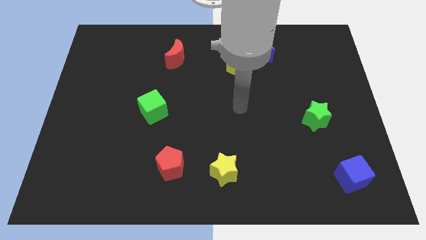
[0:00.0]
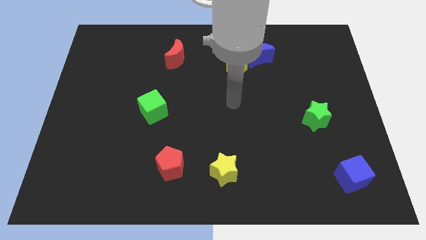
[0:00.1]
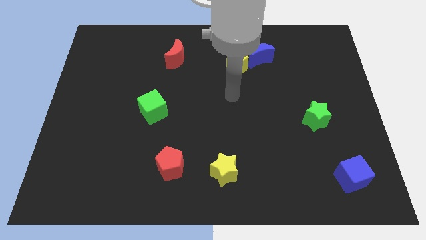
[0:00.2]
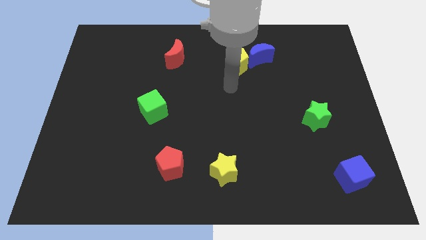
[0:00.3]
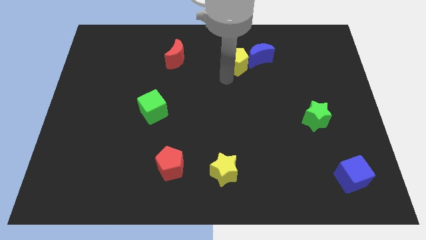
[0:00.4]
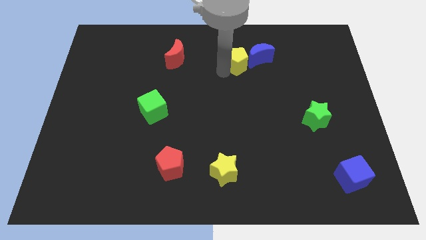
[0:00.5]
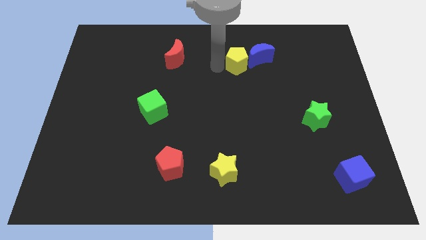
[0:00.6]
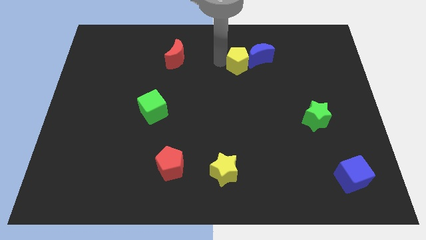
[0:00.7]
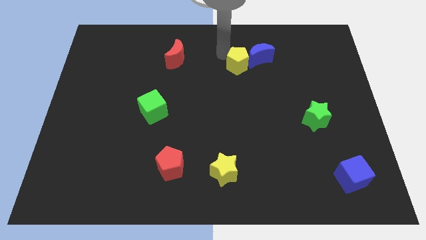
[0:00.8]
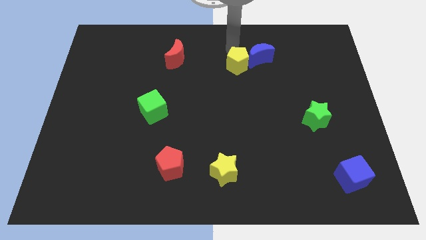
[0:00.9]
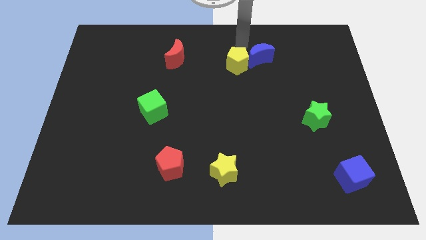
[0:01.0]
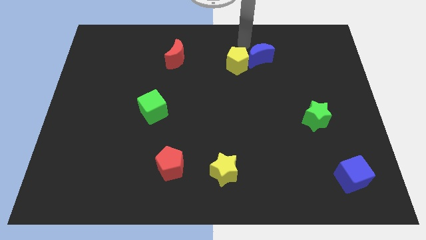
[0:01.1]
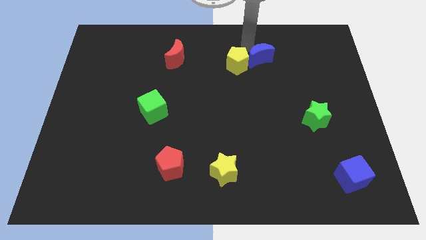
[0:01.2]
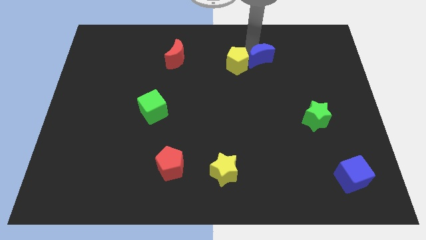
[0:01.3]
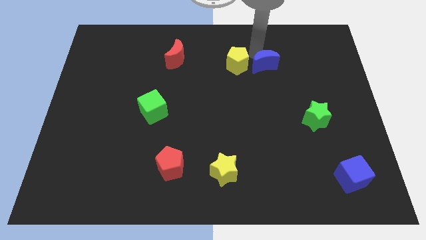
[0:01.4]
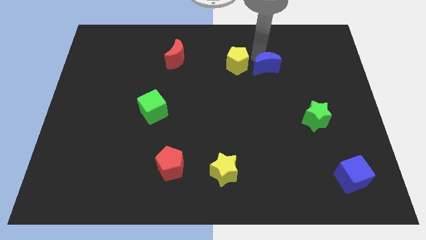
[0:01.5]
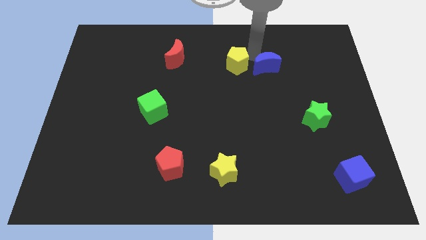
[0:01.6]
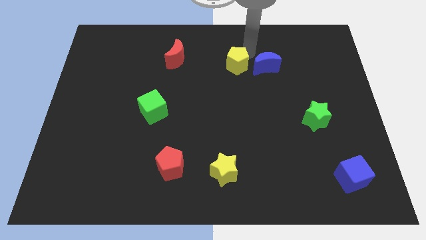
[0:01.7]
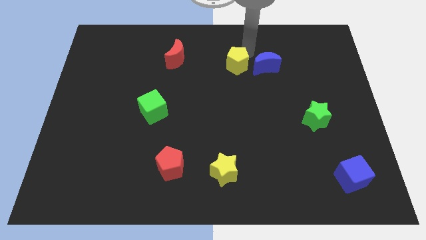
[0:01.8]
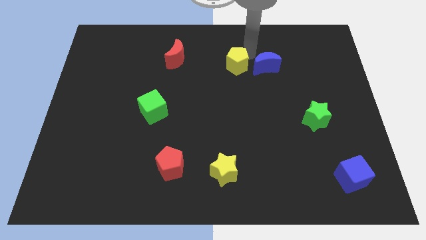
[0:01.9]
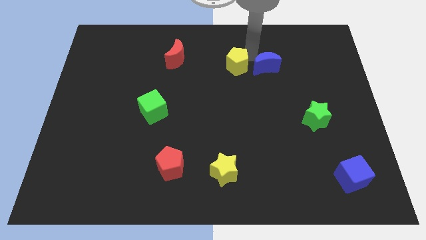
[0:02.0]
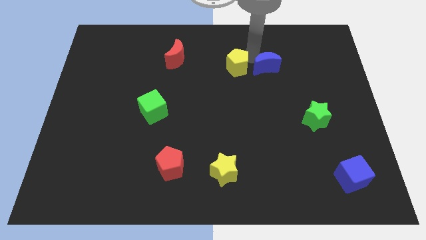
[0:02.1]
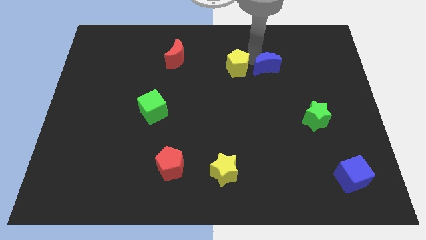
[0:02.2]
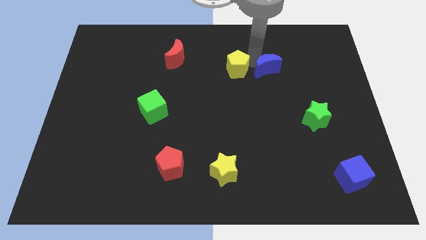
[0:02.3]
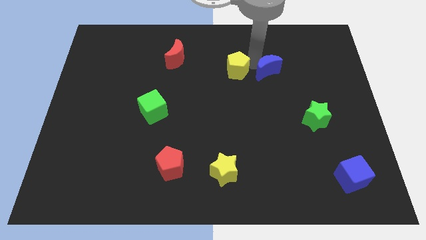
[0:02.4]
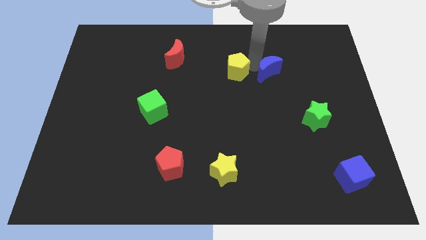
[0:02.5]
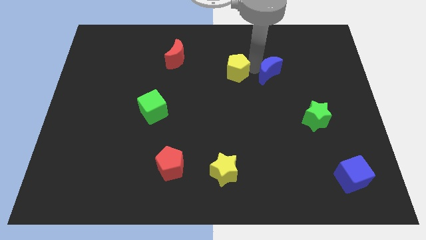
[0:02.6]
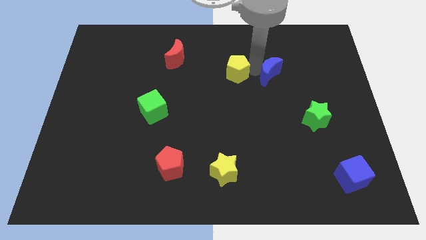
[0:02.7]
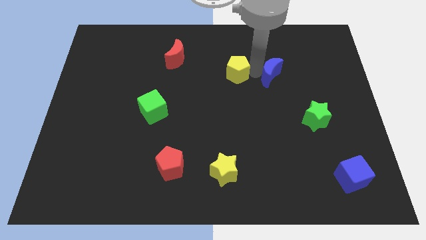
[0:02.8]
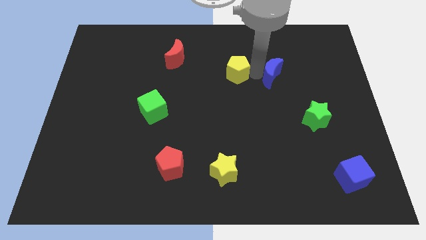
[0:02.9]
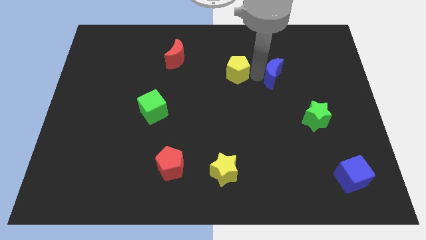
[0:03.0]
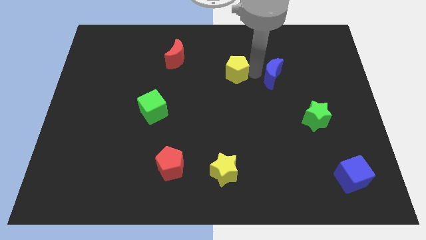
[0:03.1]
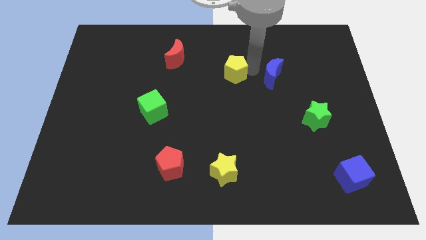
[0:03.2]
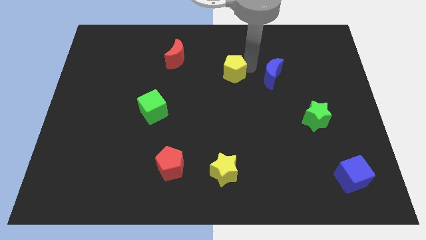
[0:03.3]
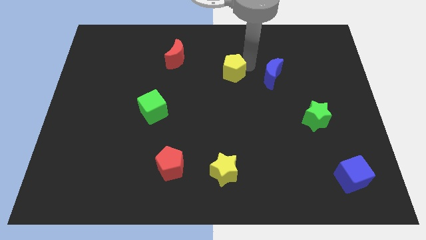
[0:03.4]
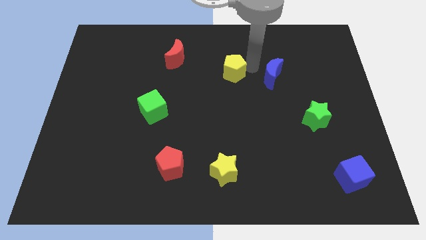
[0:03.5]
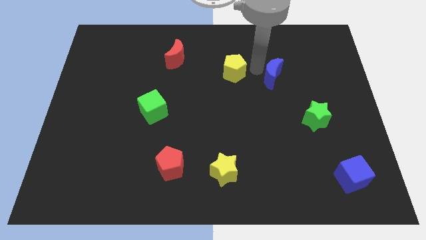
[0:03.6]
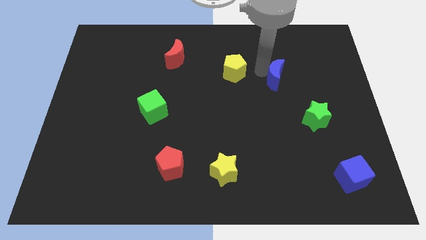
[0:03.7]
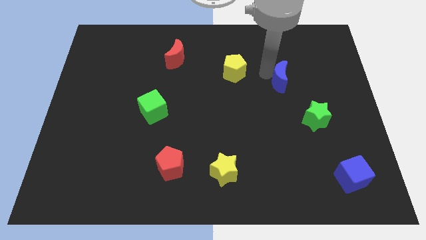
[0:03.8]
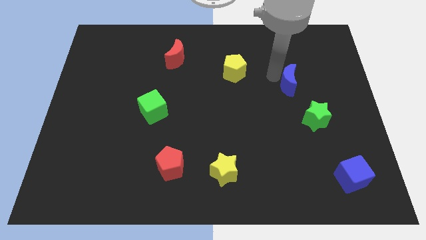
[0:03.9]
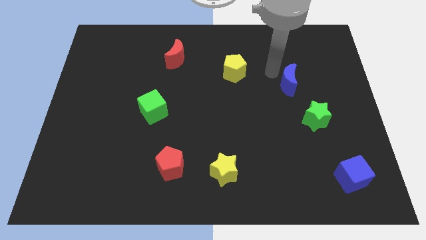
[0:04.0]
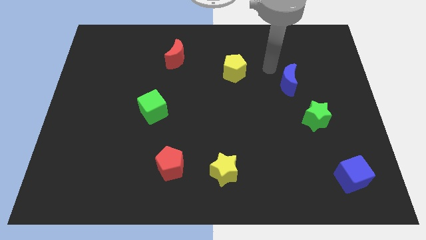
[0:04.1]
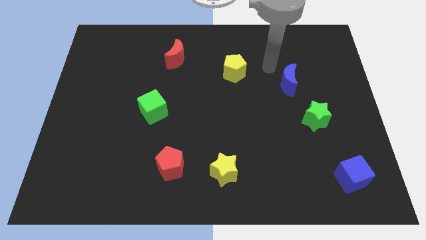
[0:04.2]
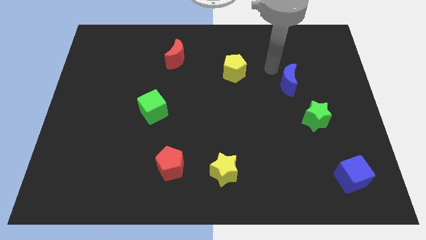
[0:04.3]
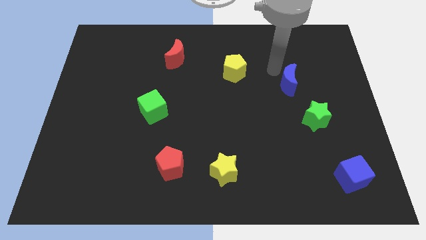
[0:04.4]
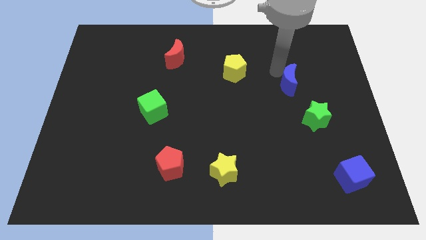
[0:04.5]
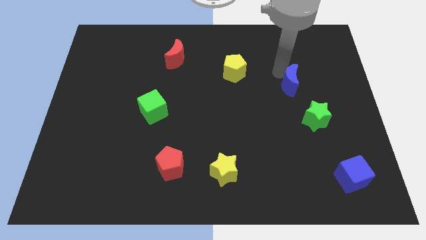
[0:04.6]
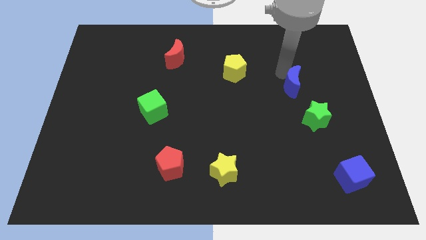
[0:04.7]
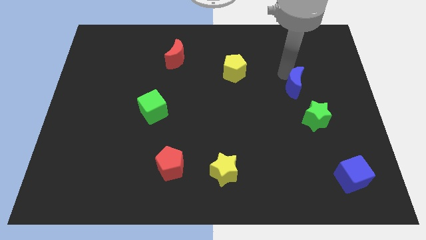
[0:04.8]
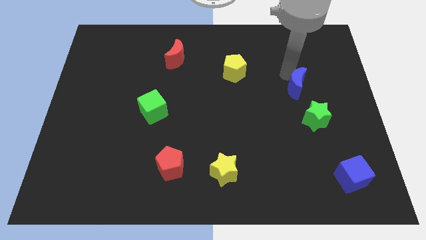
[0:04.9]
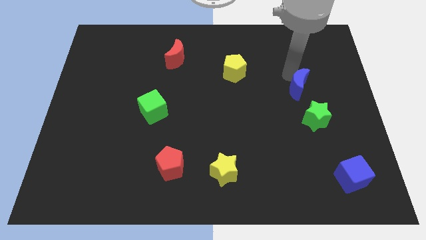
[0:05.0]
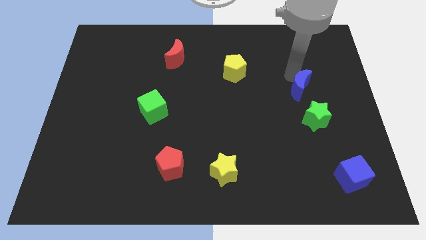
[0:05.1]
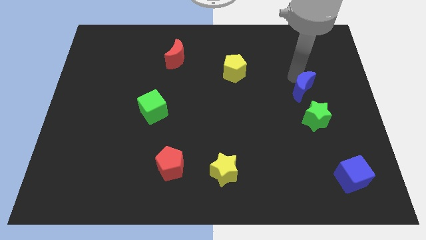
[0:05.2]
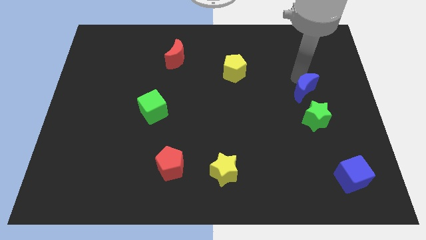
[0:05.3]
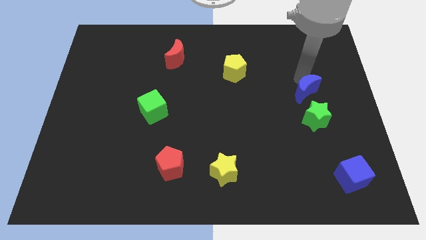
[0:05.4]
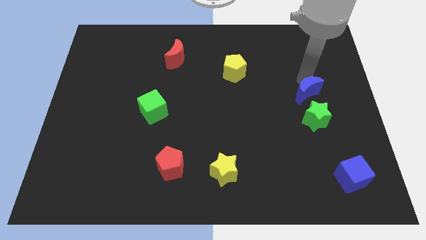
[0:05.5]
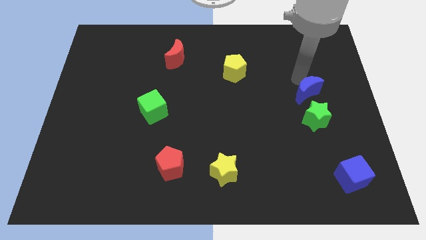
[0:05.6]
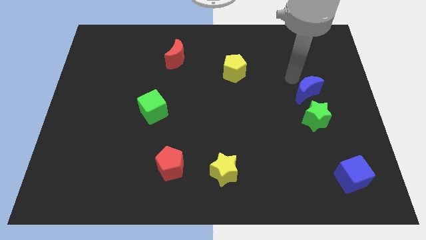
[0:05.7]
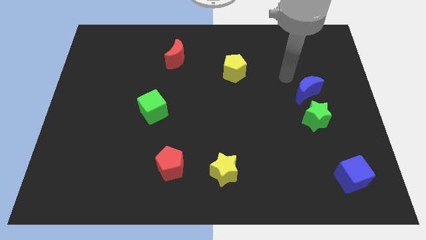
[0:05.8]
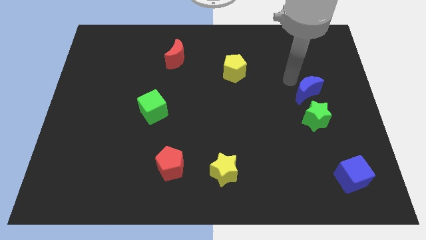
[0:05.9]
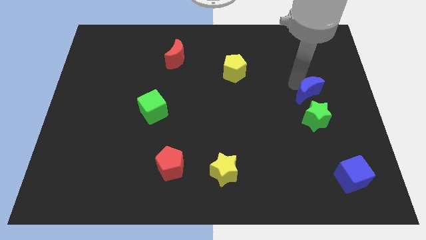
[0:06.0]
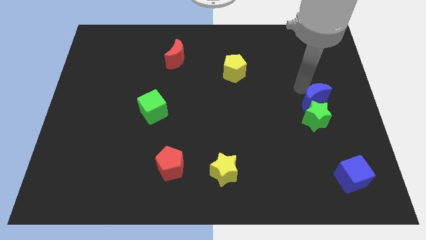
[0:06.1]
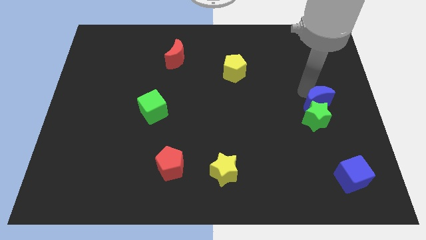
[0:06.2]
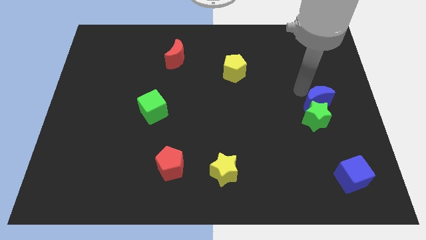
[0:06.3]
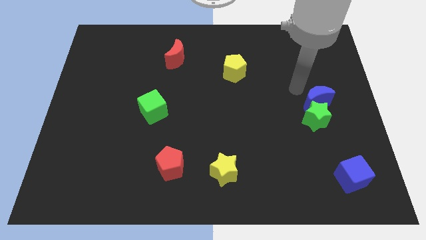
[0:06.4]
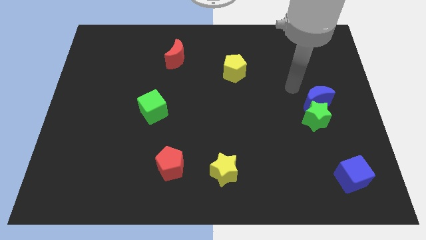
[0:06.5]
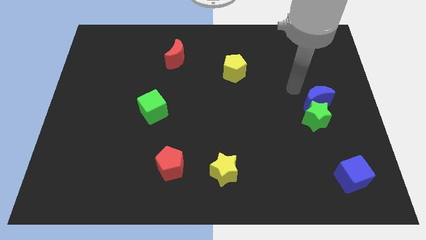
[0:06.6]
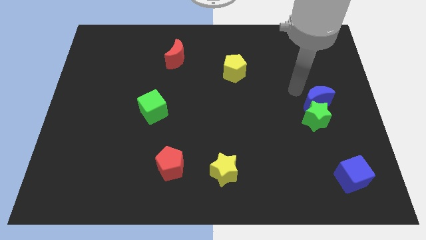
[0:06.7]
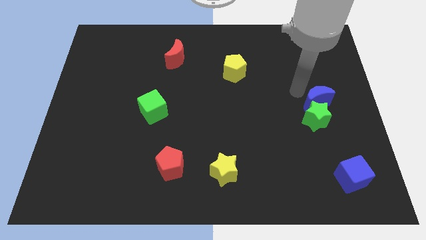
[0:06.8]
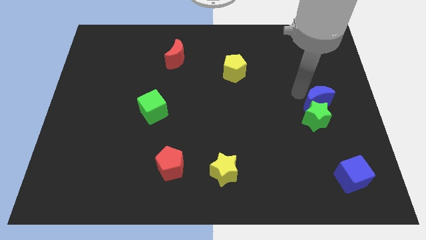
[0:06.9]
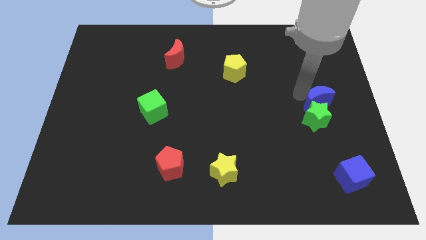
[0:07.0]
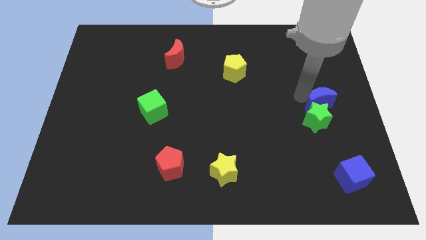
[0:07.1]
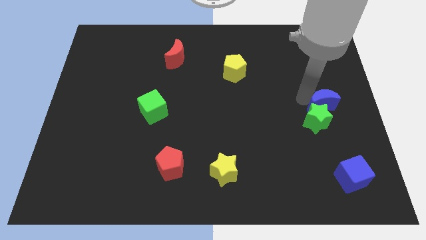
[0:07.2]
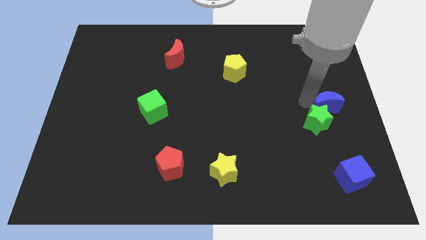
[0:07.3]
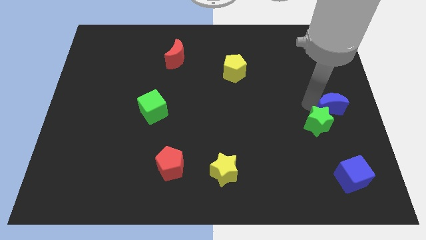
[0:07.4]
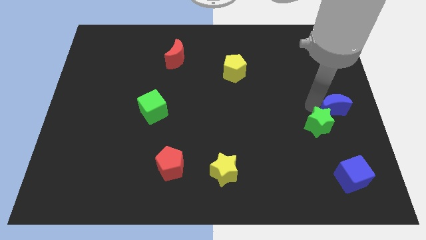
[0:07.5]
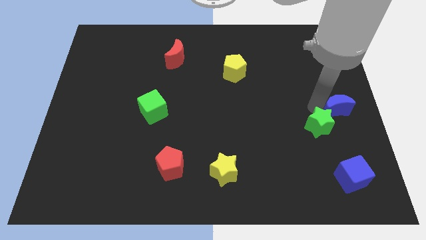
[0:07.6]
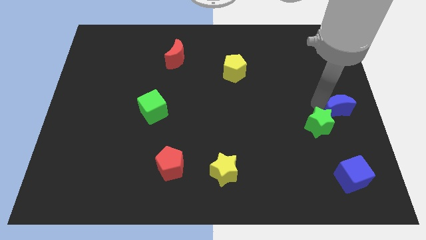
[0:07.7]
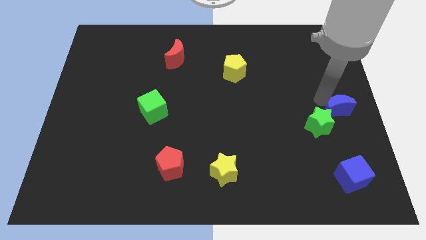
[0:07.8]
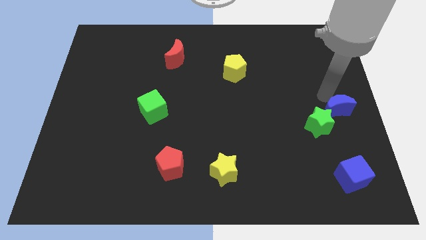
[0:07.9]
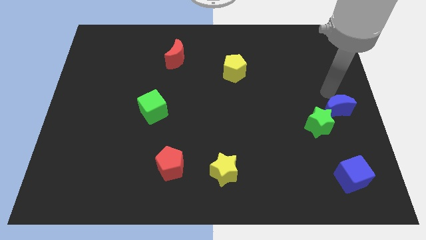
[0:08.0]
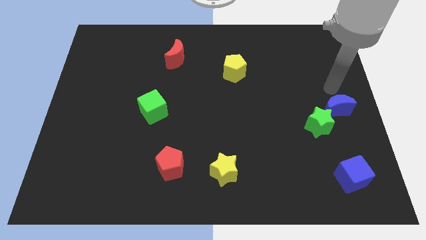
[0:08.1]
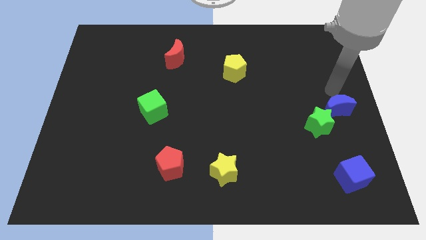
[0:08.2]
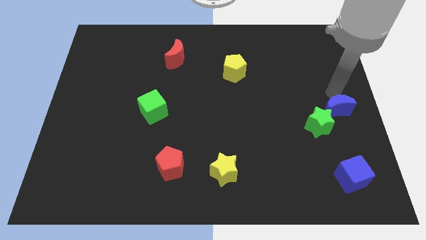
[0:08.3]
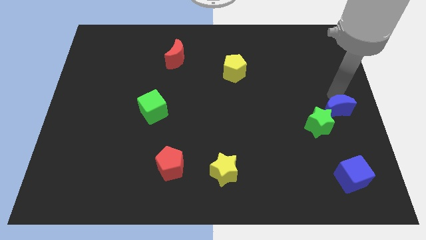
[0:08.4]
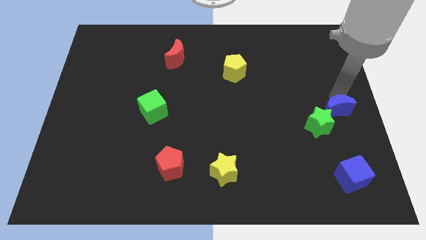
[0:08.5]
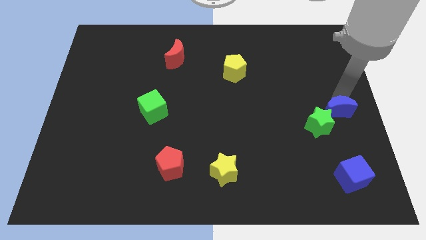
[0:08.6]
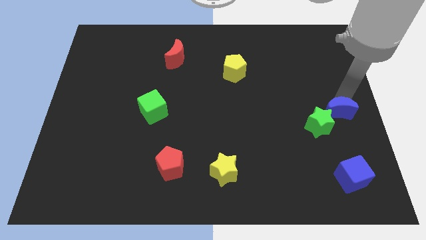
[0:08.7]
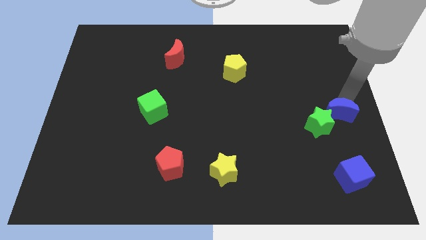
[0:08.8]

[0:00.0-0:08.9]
slide the blue moon to the top side of the blue cube
